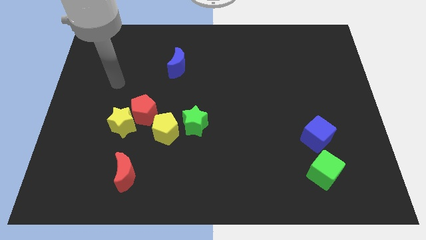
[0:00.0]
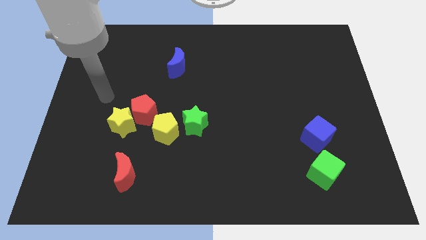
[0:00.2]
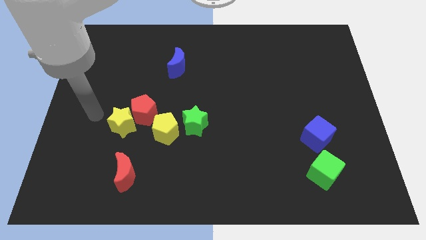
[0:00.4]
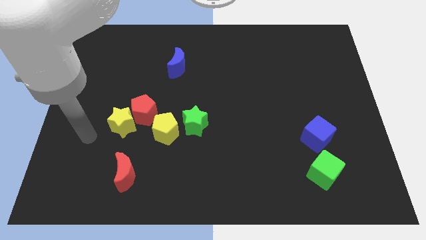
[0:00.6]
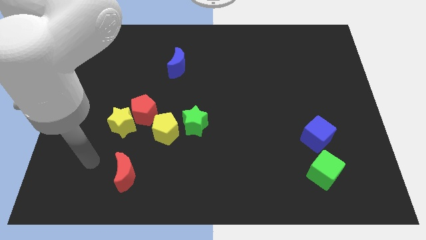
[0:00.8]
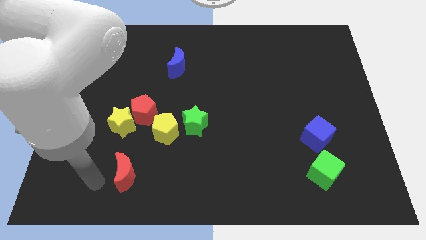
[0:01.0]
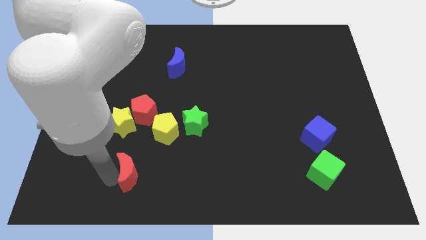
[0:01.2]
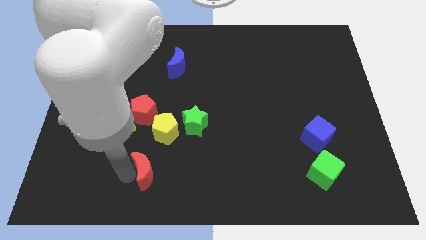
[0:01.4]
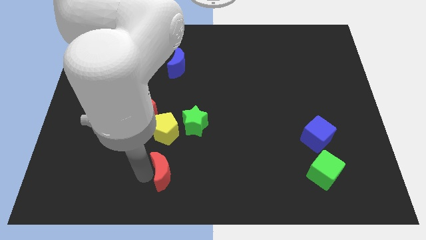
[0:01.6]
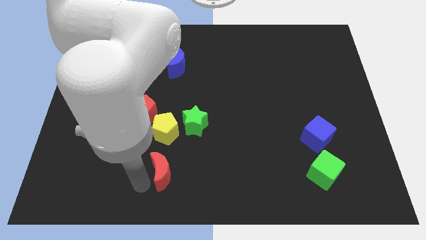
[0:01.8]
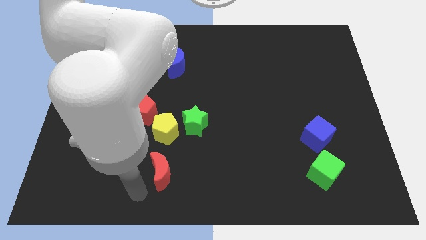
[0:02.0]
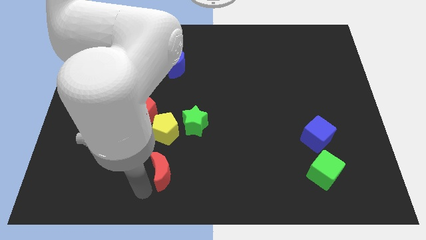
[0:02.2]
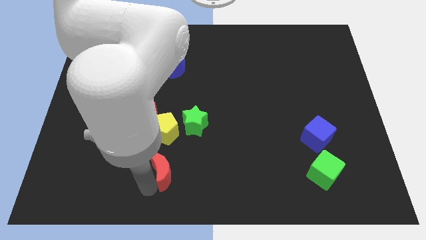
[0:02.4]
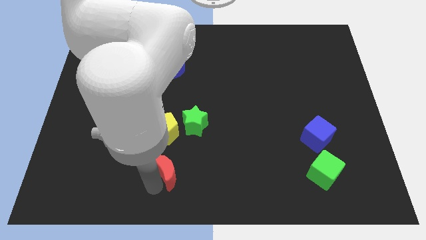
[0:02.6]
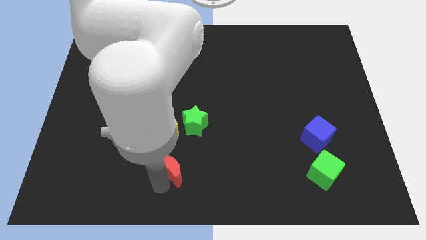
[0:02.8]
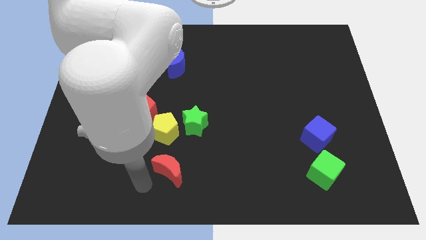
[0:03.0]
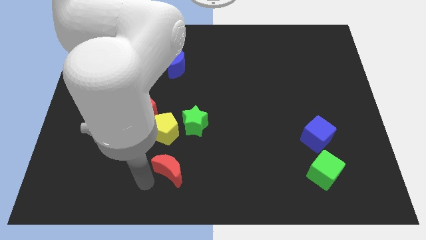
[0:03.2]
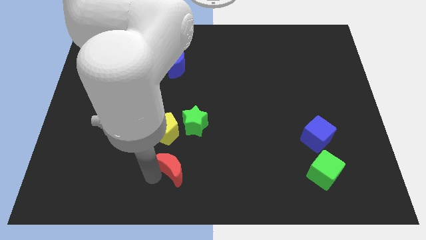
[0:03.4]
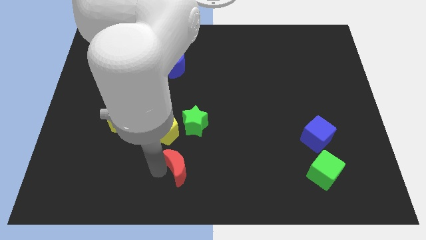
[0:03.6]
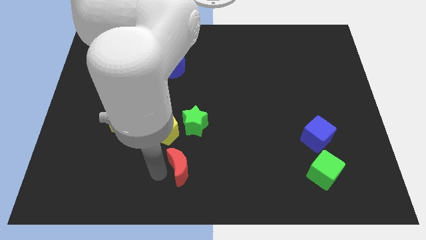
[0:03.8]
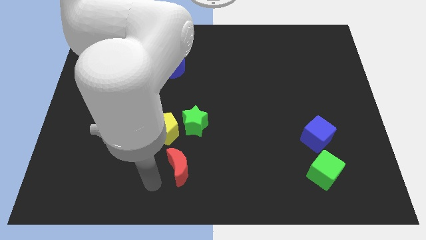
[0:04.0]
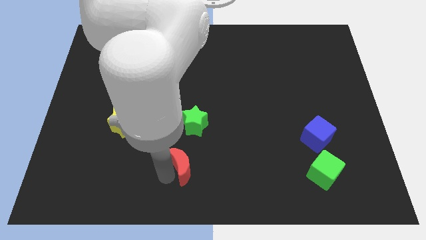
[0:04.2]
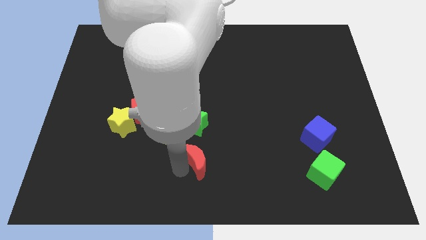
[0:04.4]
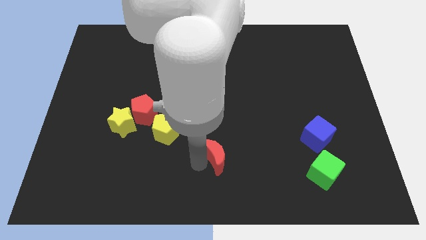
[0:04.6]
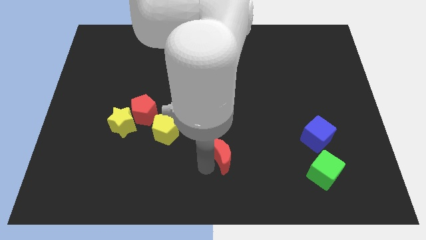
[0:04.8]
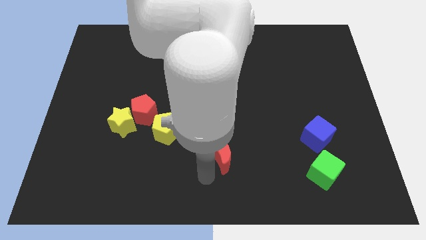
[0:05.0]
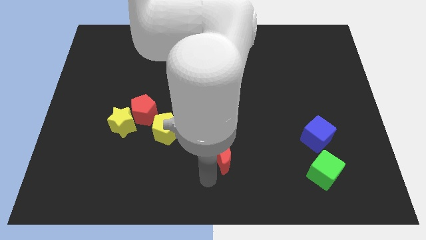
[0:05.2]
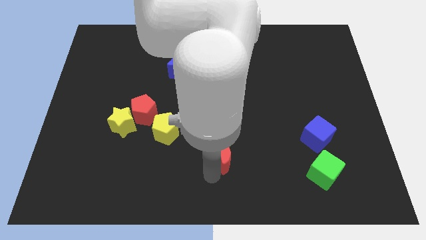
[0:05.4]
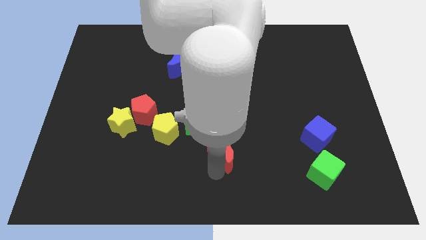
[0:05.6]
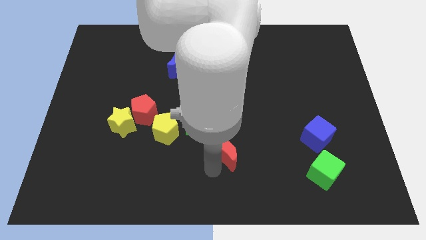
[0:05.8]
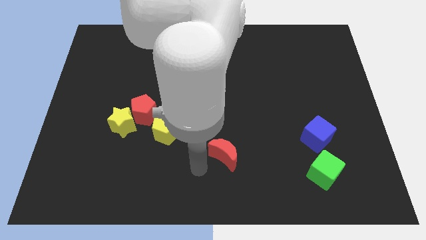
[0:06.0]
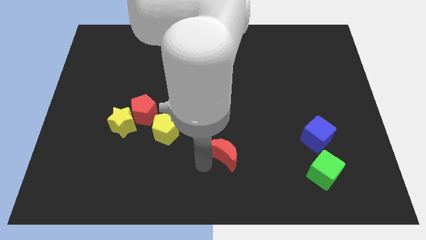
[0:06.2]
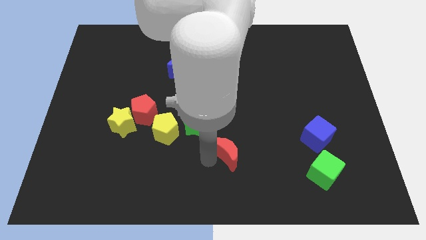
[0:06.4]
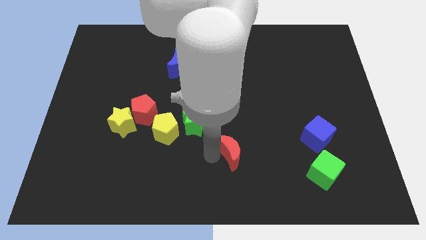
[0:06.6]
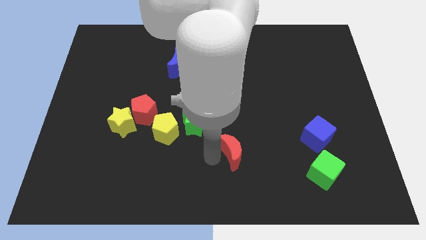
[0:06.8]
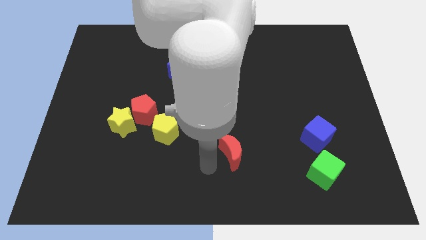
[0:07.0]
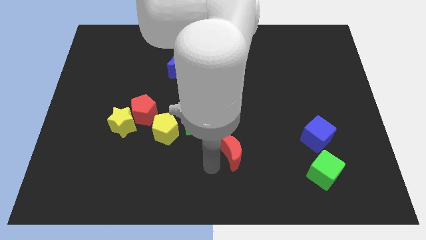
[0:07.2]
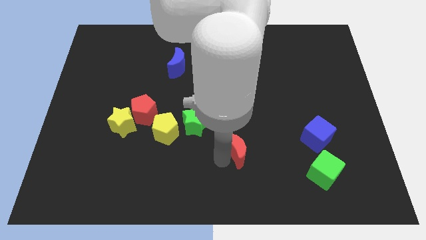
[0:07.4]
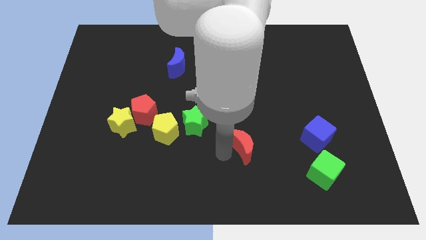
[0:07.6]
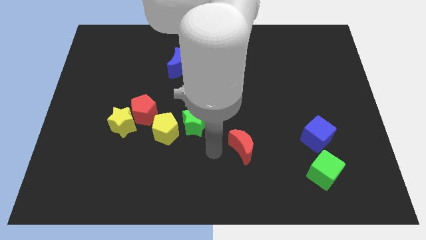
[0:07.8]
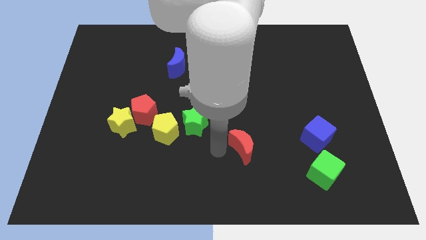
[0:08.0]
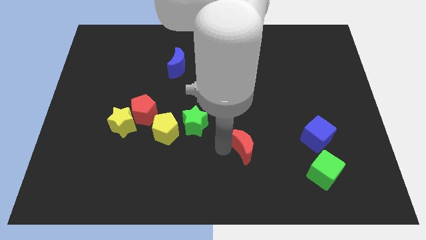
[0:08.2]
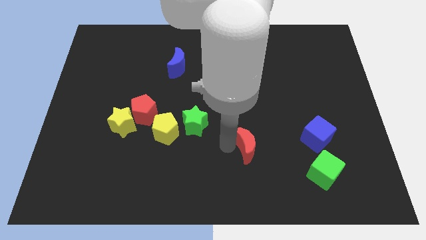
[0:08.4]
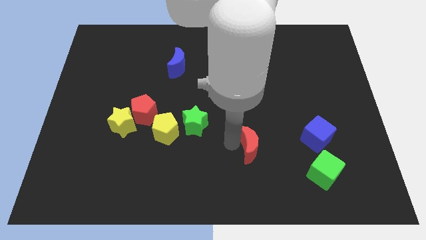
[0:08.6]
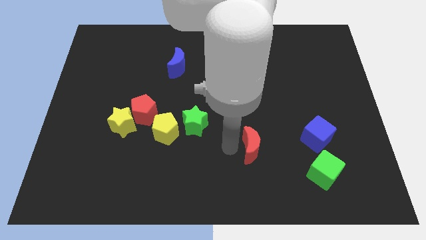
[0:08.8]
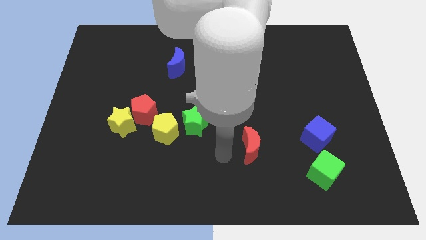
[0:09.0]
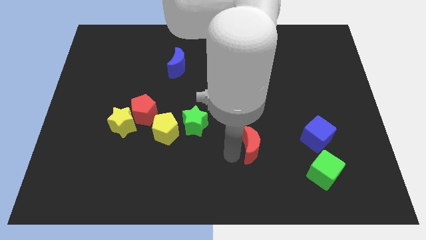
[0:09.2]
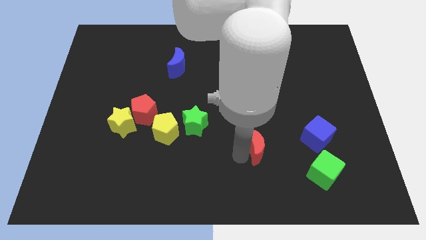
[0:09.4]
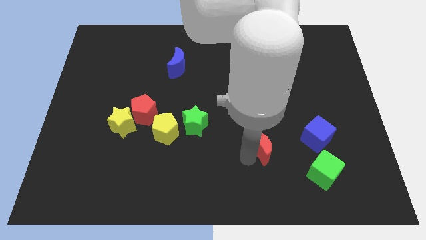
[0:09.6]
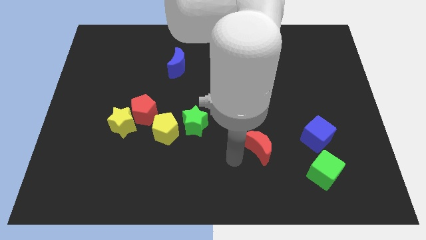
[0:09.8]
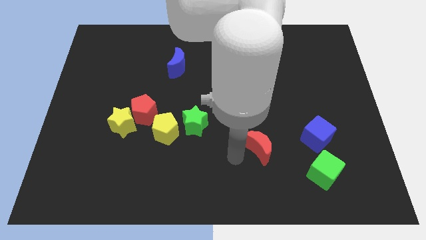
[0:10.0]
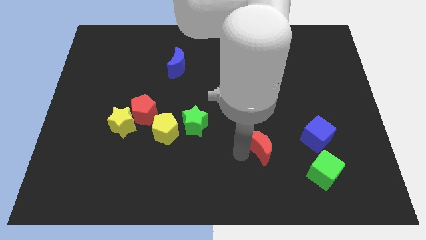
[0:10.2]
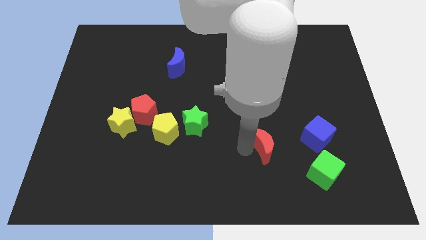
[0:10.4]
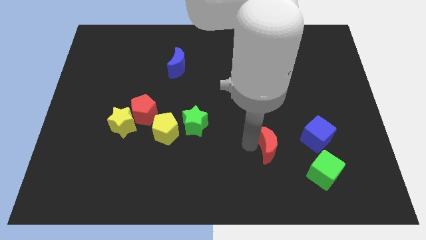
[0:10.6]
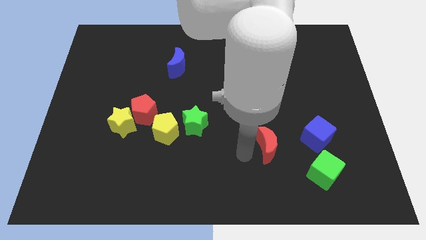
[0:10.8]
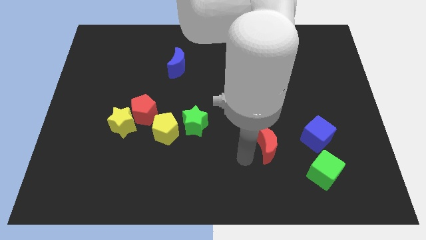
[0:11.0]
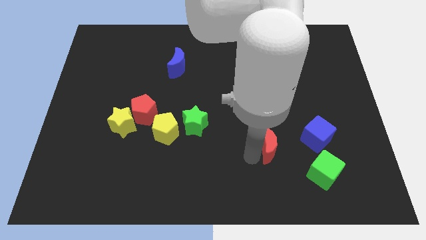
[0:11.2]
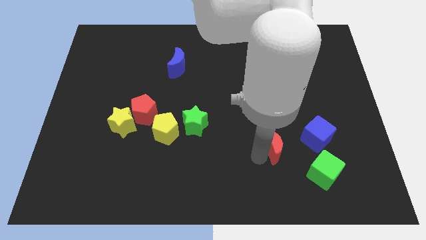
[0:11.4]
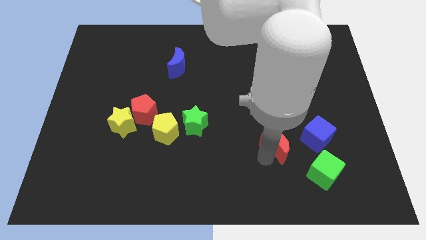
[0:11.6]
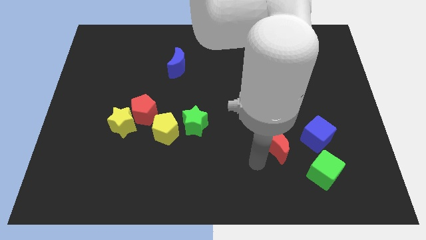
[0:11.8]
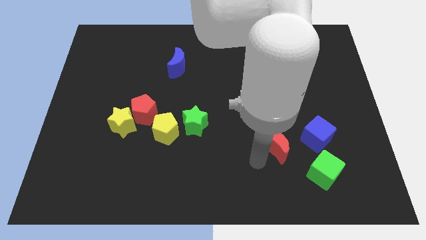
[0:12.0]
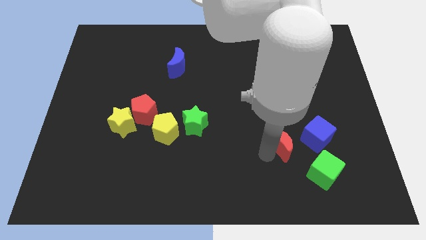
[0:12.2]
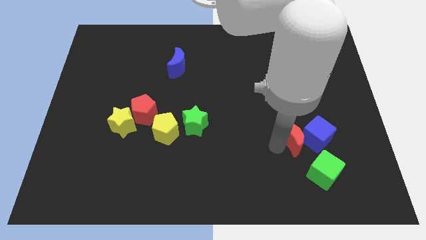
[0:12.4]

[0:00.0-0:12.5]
slide the red moon towards the blue cube

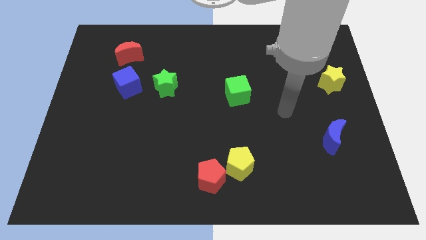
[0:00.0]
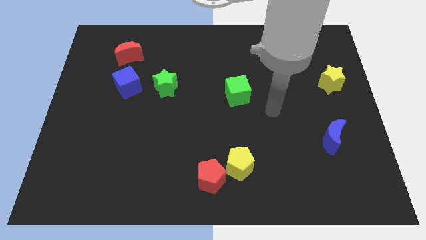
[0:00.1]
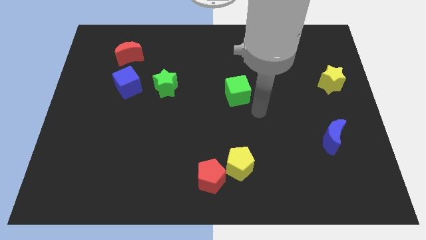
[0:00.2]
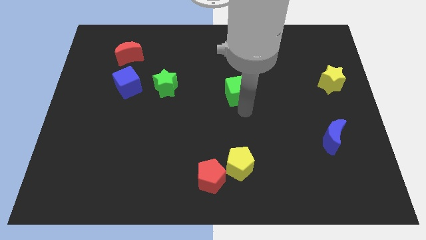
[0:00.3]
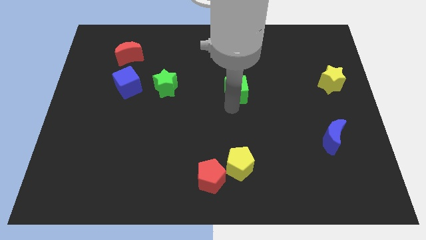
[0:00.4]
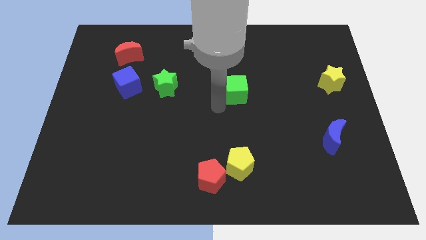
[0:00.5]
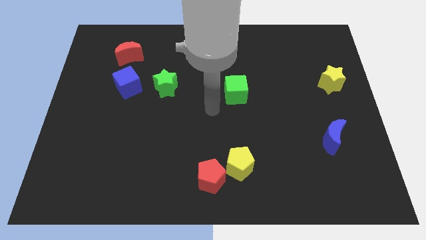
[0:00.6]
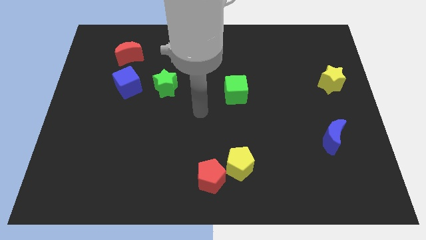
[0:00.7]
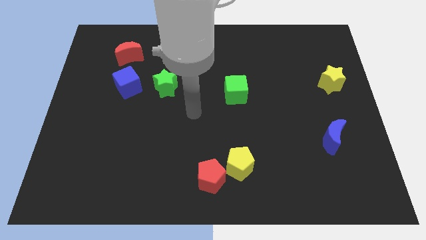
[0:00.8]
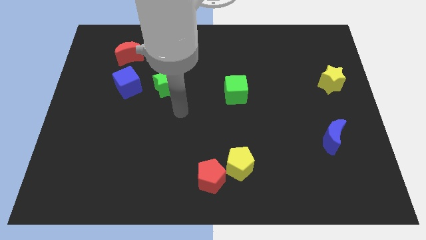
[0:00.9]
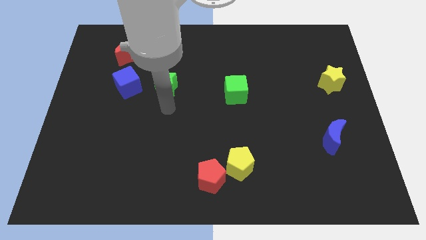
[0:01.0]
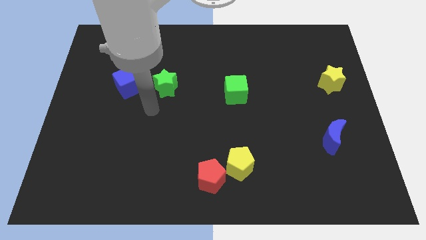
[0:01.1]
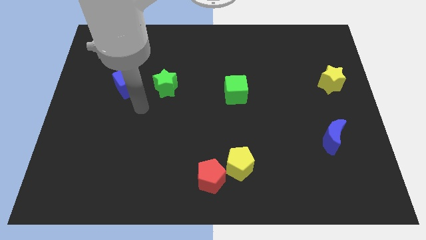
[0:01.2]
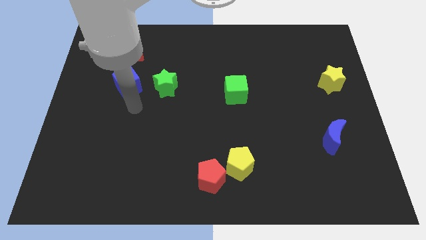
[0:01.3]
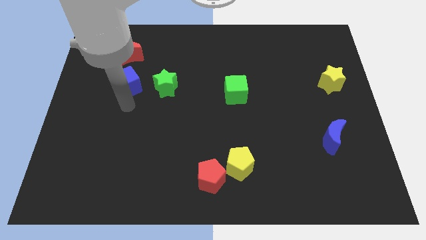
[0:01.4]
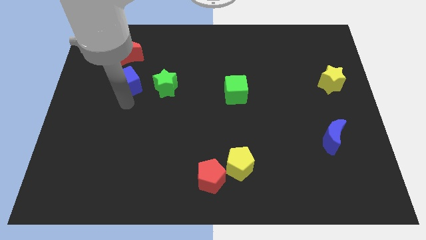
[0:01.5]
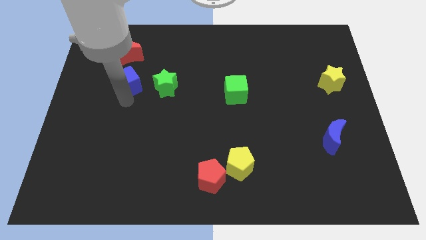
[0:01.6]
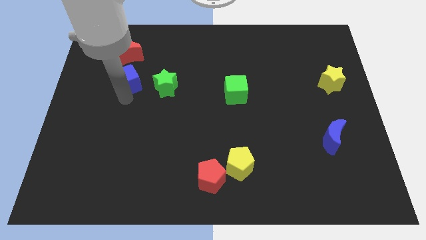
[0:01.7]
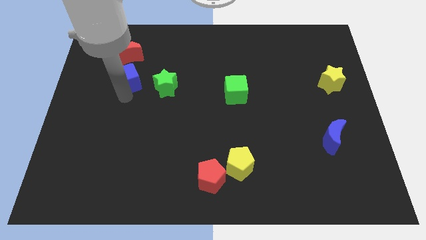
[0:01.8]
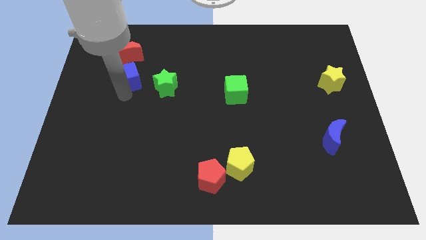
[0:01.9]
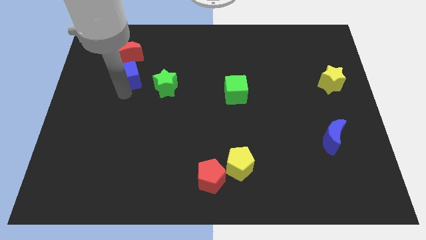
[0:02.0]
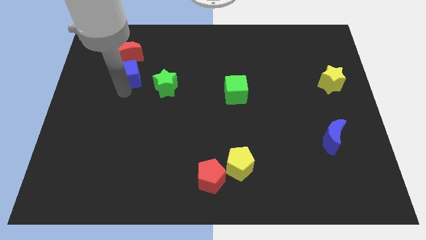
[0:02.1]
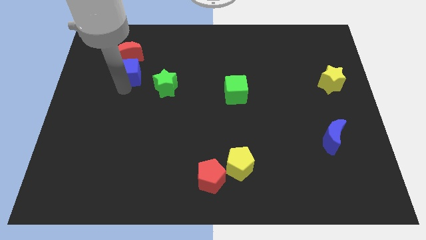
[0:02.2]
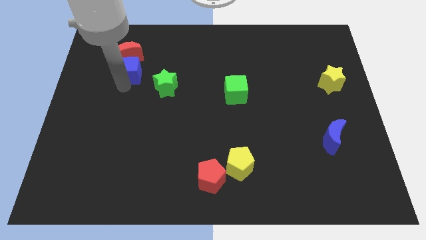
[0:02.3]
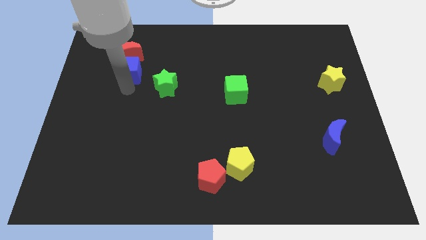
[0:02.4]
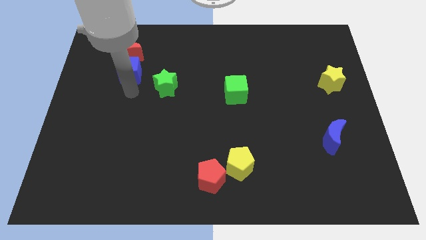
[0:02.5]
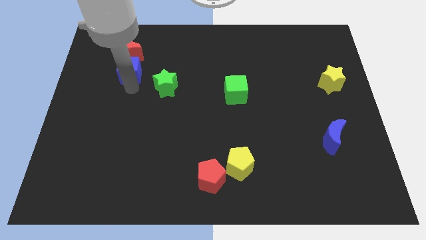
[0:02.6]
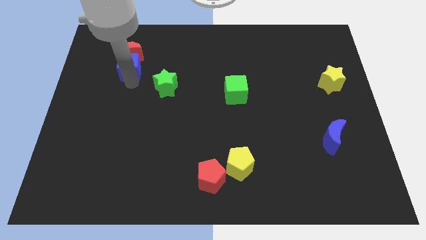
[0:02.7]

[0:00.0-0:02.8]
push the blue cube towards the red moon
